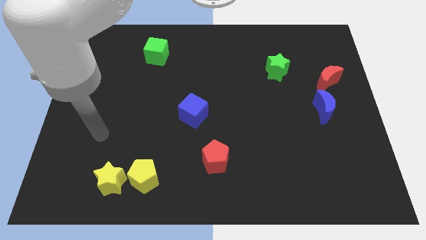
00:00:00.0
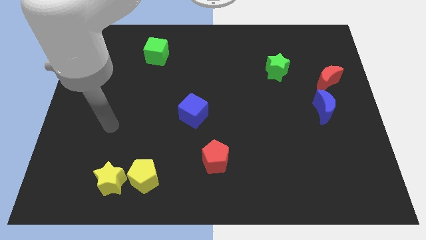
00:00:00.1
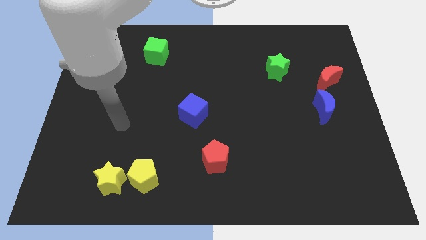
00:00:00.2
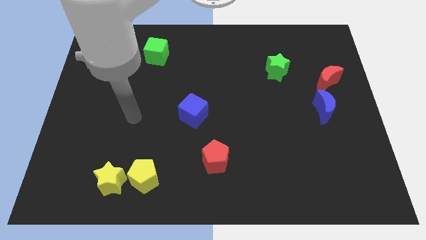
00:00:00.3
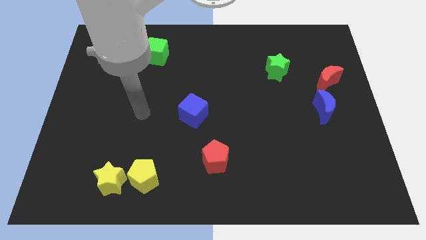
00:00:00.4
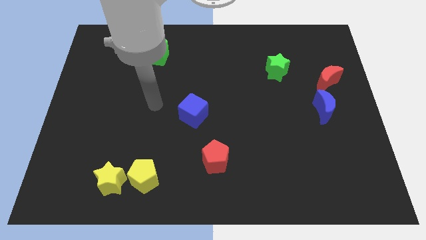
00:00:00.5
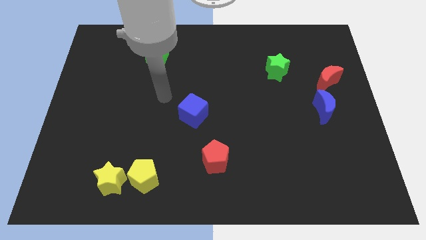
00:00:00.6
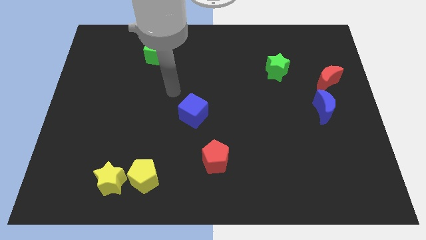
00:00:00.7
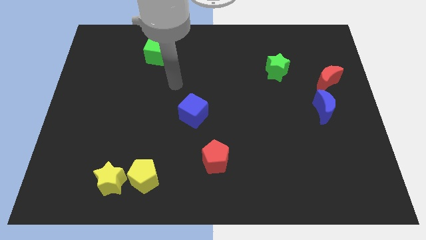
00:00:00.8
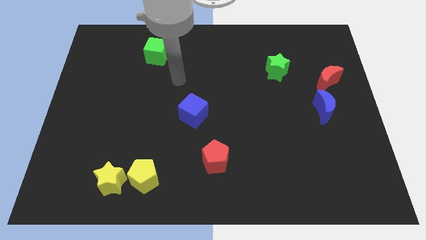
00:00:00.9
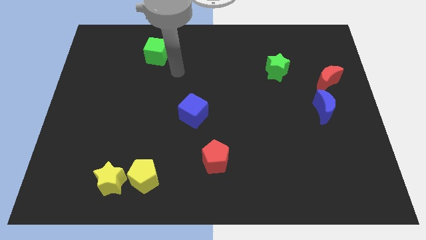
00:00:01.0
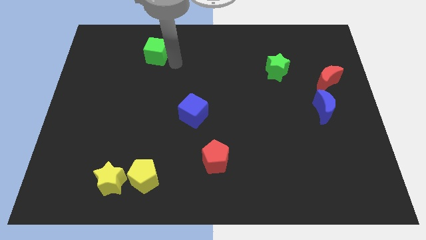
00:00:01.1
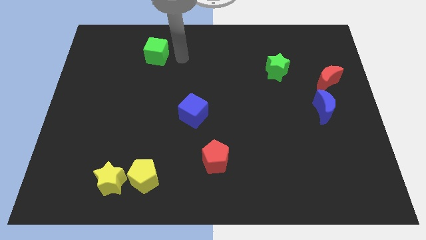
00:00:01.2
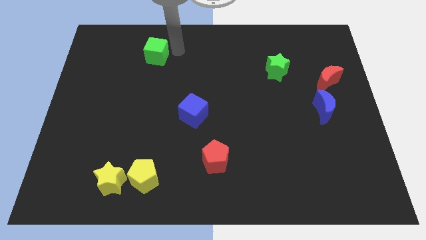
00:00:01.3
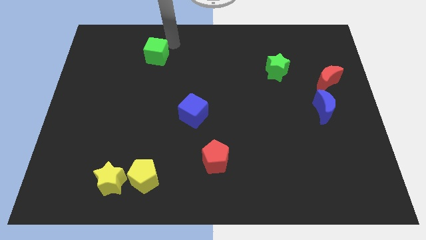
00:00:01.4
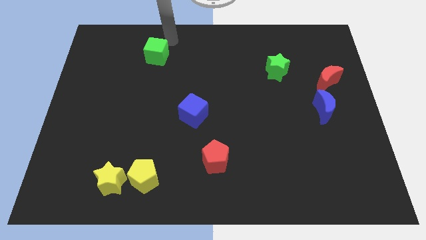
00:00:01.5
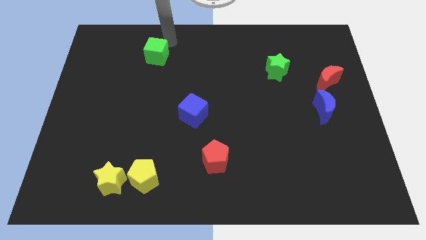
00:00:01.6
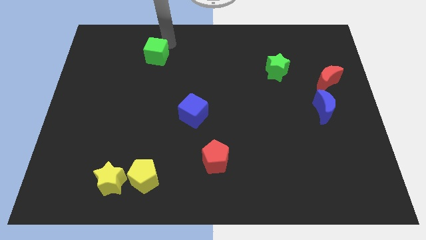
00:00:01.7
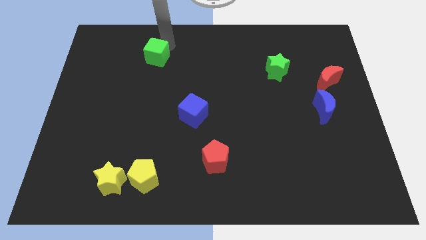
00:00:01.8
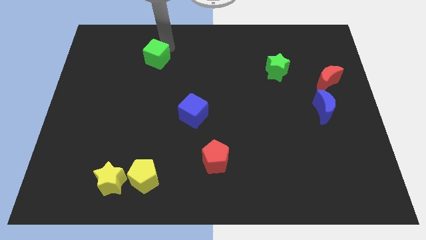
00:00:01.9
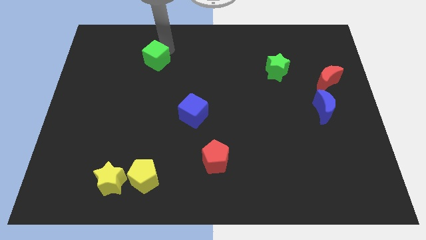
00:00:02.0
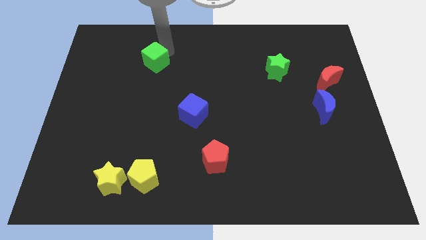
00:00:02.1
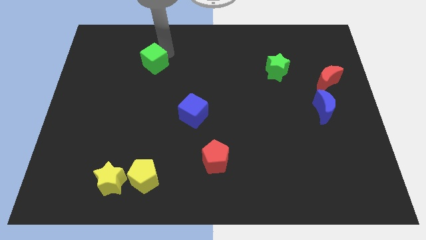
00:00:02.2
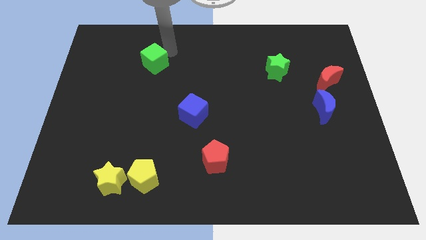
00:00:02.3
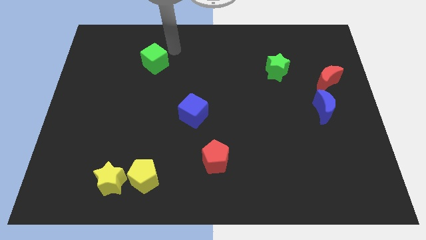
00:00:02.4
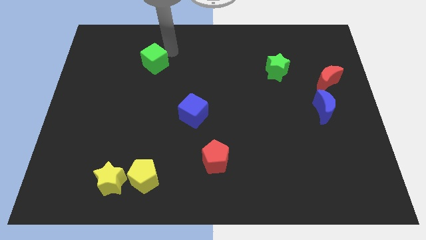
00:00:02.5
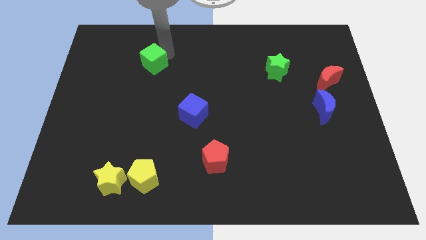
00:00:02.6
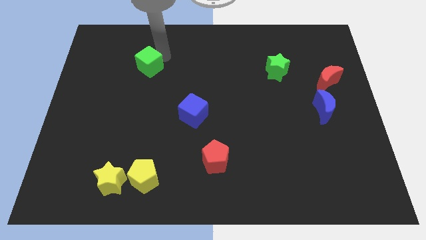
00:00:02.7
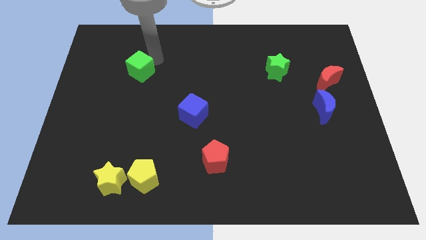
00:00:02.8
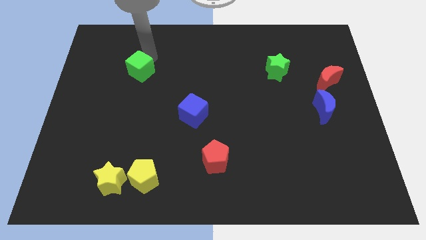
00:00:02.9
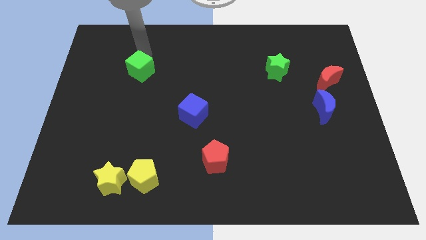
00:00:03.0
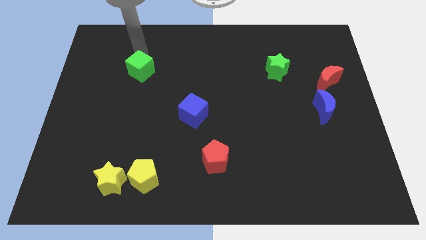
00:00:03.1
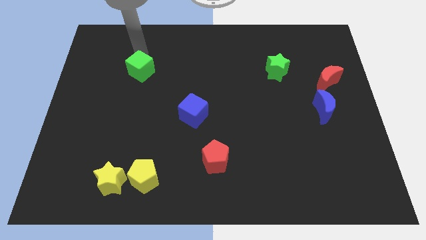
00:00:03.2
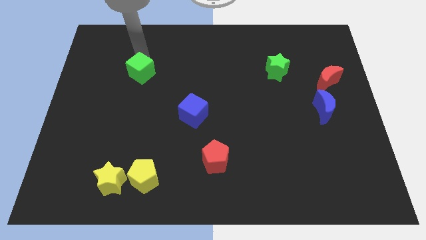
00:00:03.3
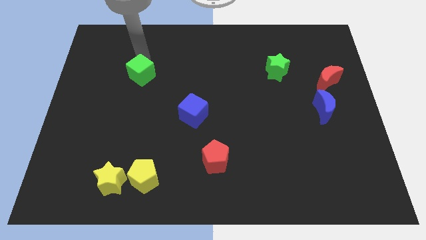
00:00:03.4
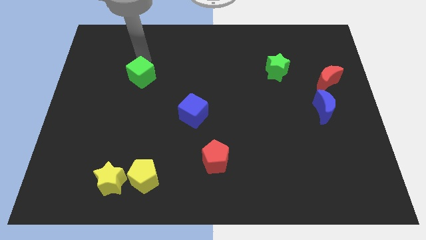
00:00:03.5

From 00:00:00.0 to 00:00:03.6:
slightly push the green cube down

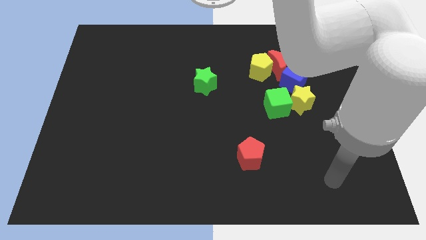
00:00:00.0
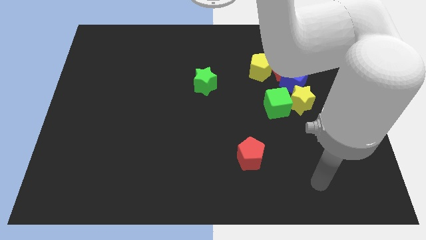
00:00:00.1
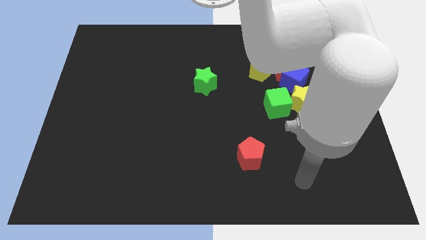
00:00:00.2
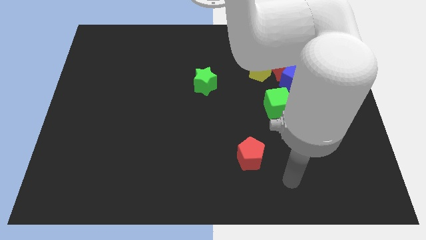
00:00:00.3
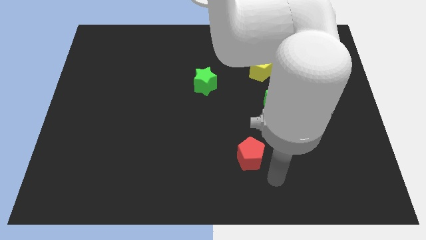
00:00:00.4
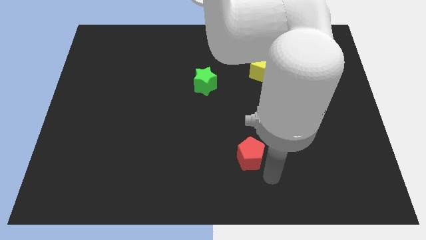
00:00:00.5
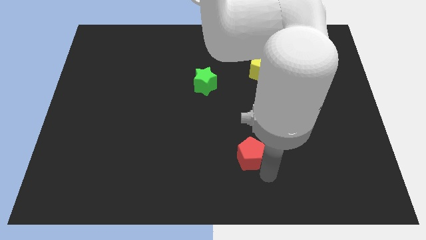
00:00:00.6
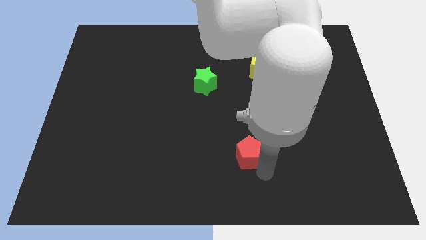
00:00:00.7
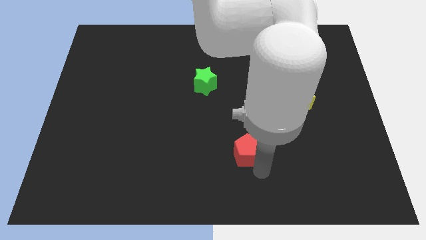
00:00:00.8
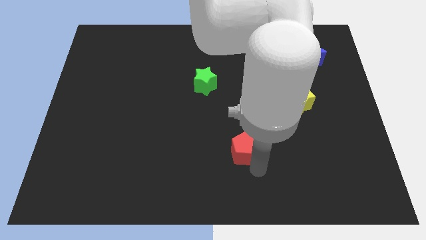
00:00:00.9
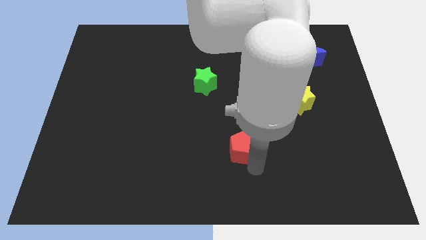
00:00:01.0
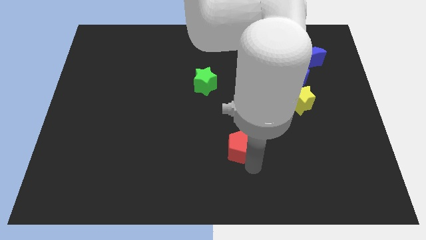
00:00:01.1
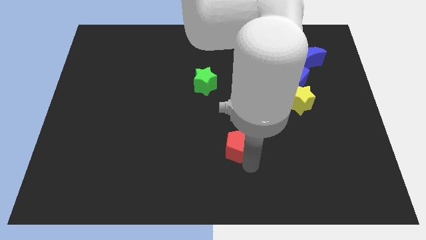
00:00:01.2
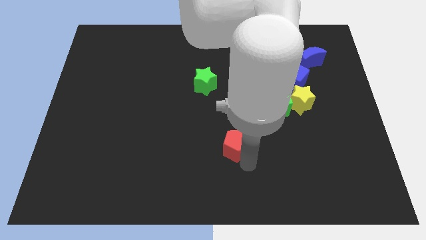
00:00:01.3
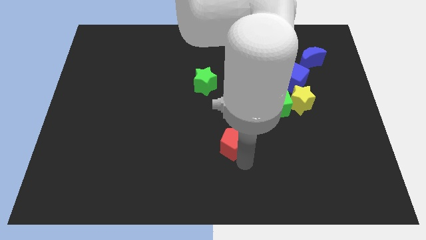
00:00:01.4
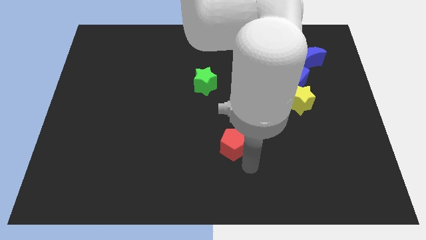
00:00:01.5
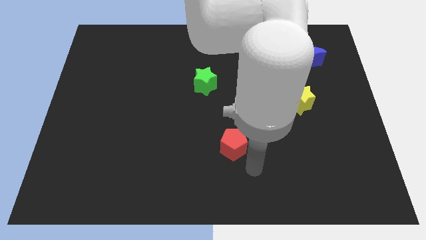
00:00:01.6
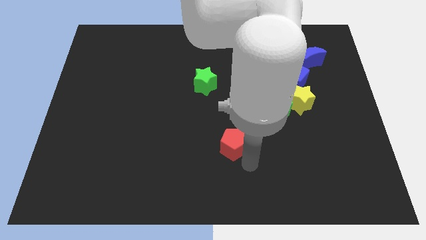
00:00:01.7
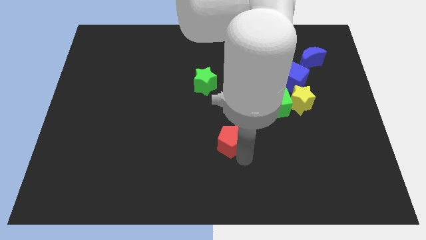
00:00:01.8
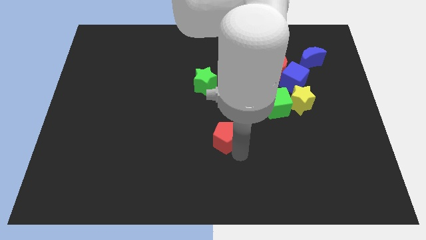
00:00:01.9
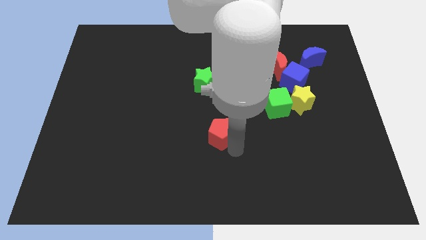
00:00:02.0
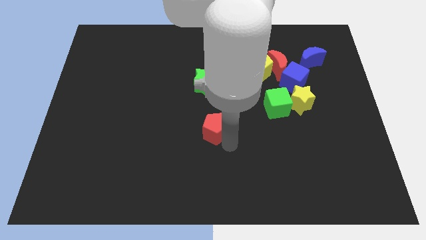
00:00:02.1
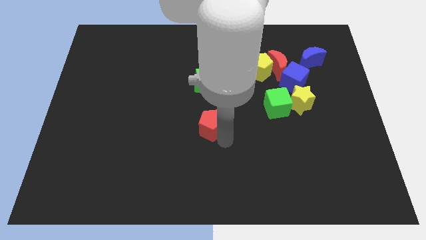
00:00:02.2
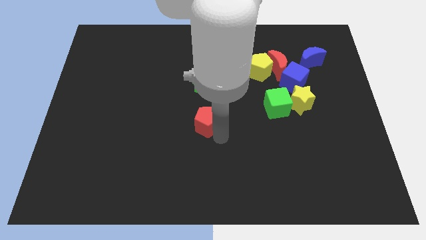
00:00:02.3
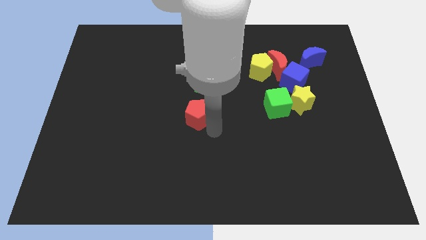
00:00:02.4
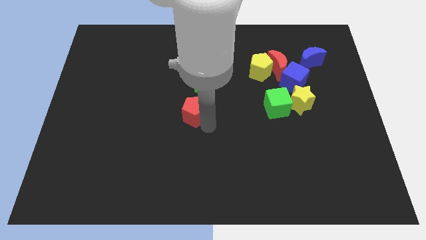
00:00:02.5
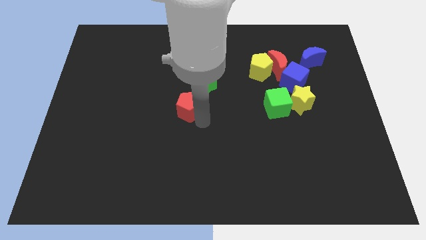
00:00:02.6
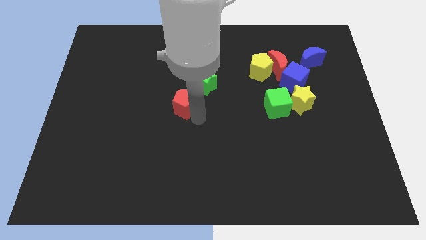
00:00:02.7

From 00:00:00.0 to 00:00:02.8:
slide the red pentagon upwards and left diagonally

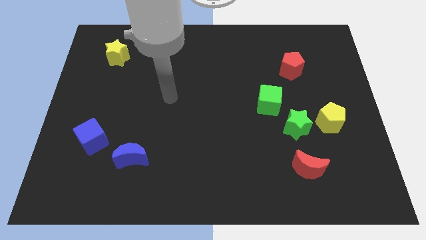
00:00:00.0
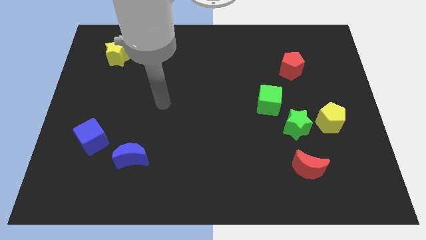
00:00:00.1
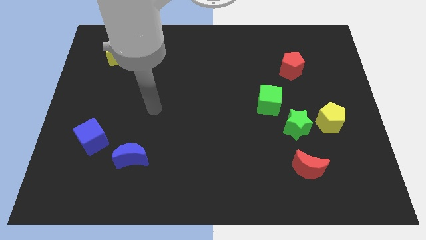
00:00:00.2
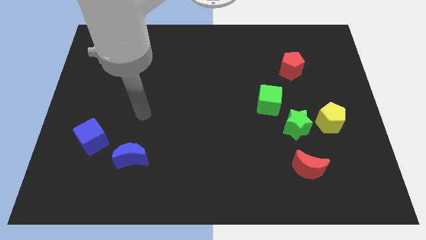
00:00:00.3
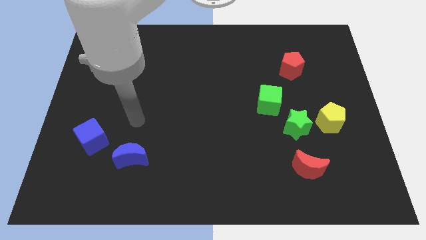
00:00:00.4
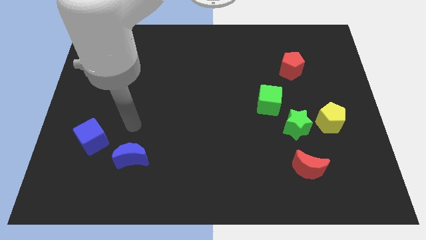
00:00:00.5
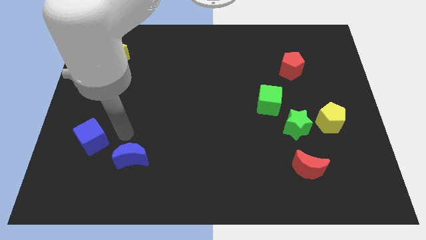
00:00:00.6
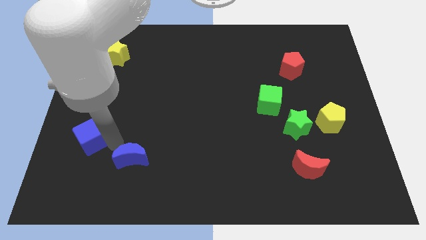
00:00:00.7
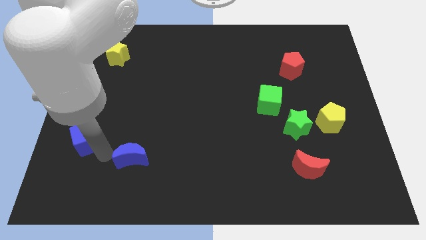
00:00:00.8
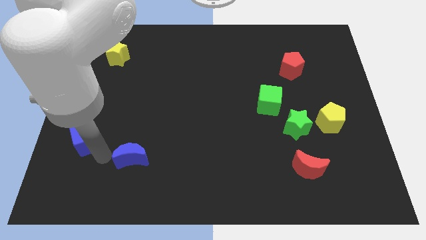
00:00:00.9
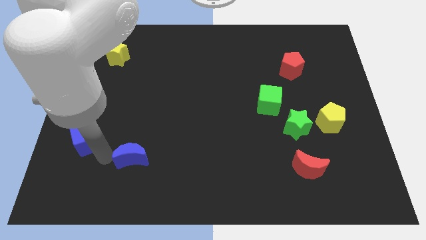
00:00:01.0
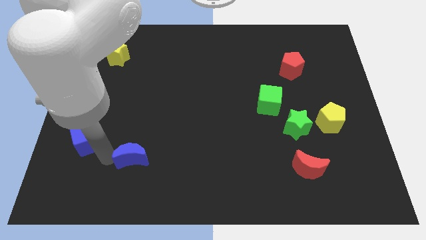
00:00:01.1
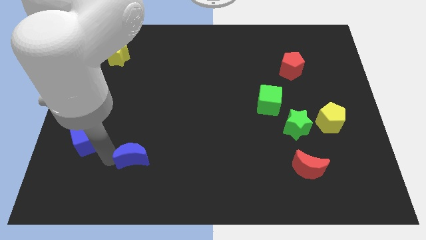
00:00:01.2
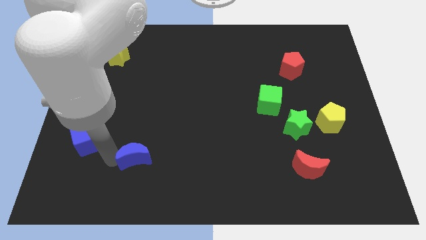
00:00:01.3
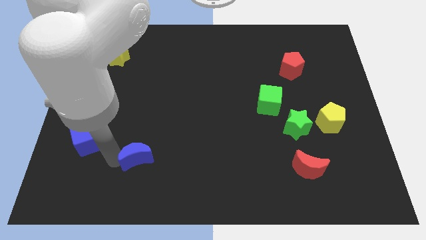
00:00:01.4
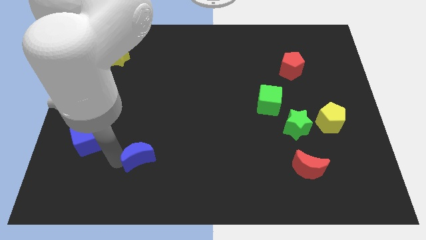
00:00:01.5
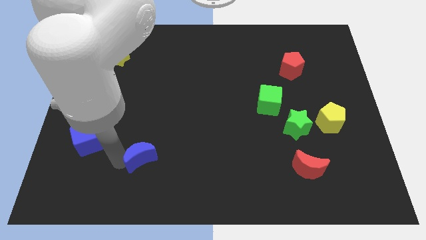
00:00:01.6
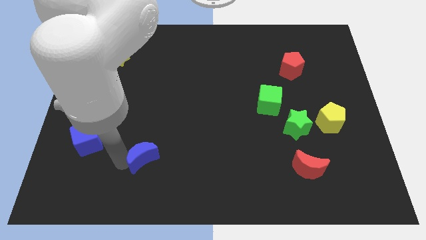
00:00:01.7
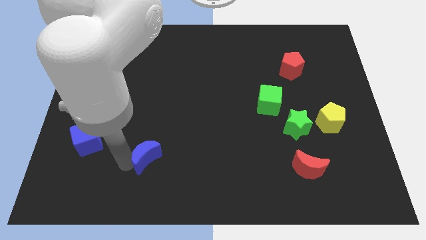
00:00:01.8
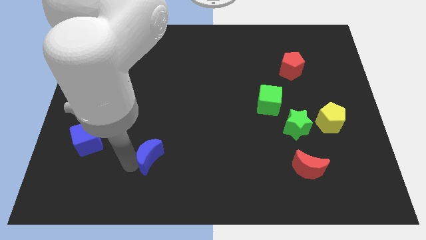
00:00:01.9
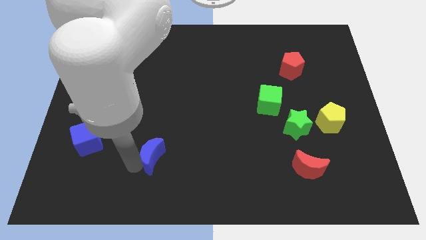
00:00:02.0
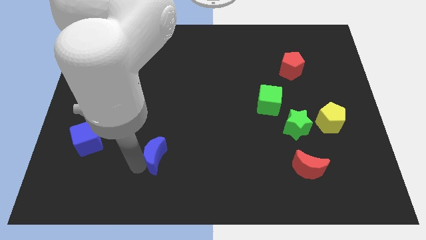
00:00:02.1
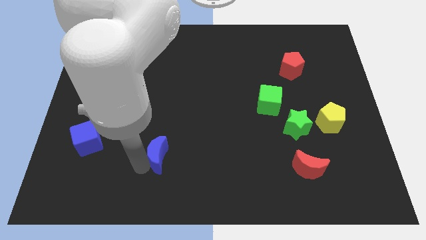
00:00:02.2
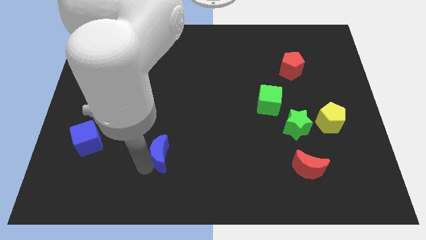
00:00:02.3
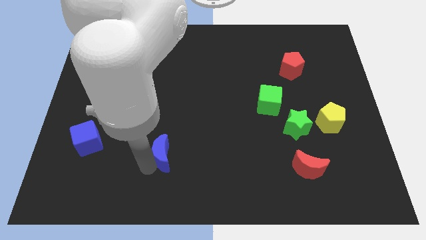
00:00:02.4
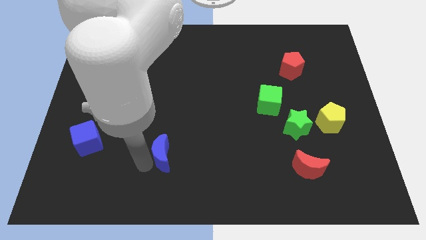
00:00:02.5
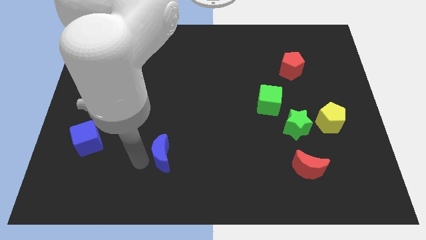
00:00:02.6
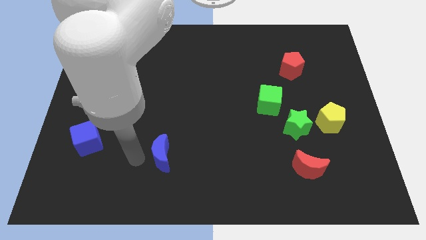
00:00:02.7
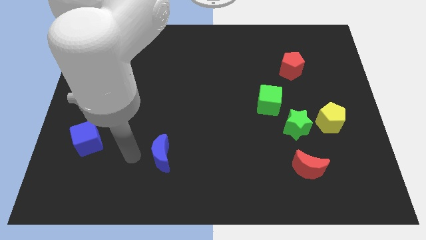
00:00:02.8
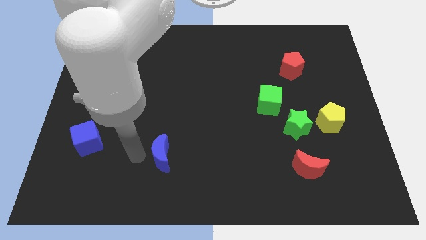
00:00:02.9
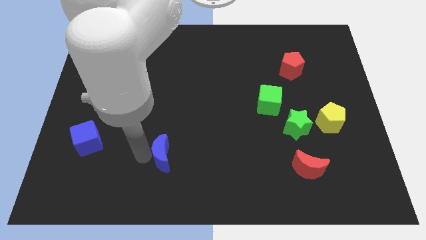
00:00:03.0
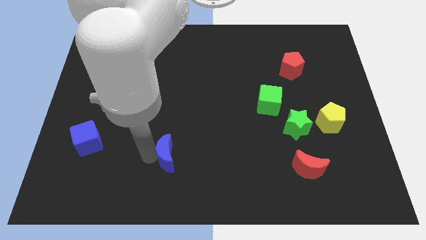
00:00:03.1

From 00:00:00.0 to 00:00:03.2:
slightly push the blue moon to the right
